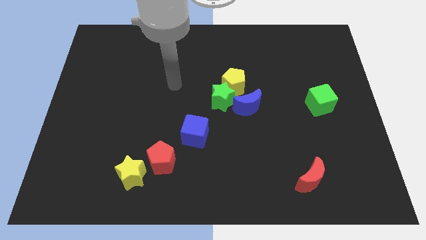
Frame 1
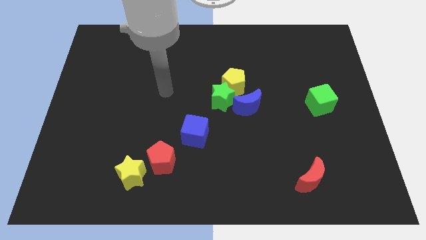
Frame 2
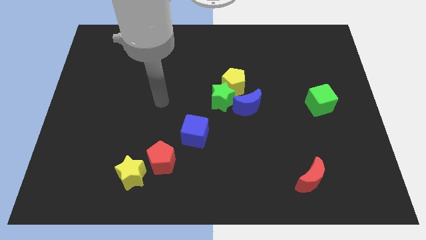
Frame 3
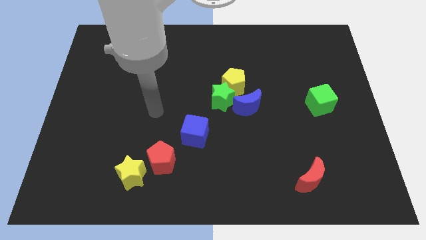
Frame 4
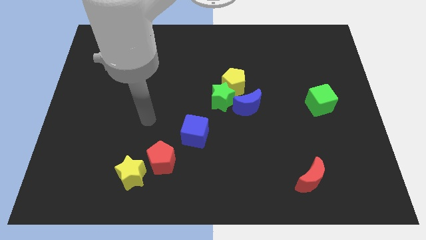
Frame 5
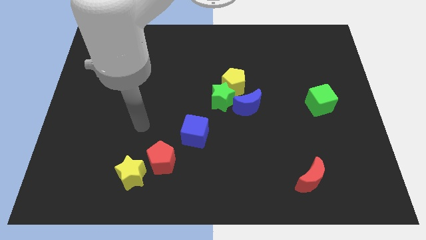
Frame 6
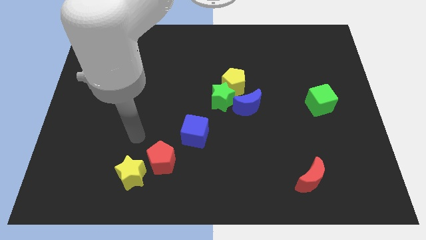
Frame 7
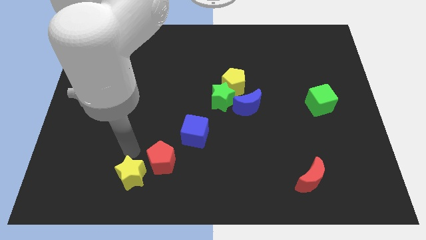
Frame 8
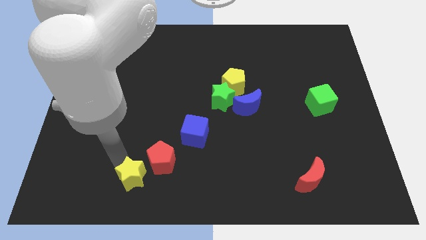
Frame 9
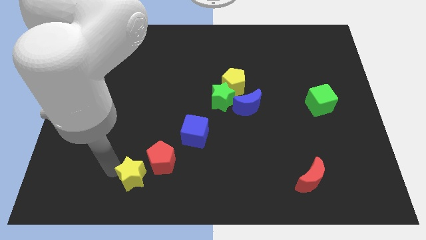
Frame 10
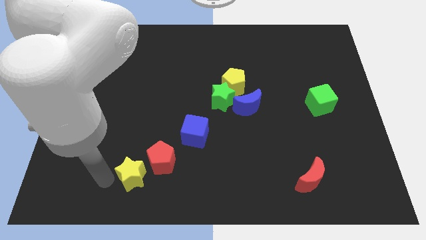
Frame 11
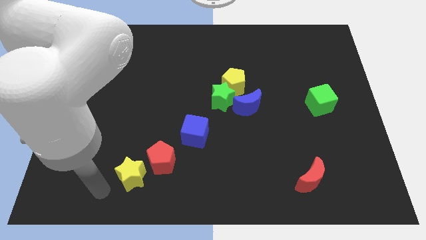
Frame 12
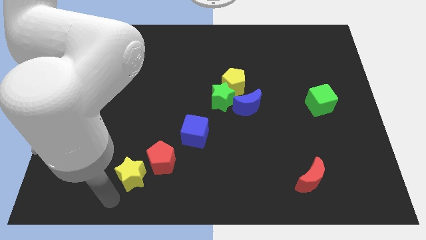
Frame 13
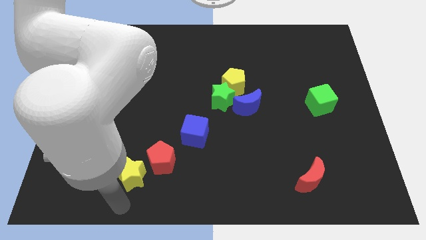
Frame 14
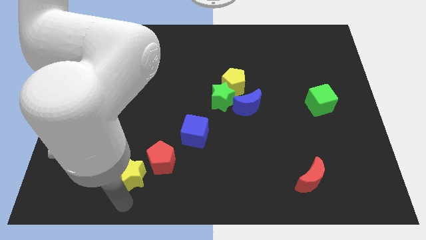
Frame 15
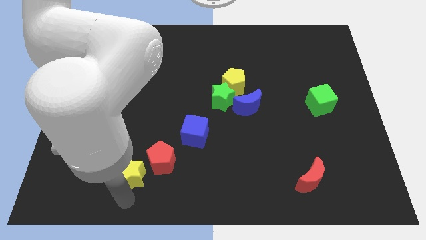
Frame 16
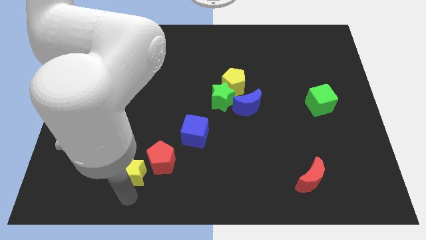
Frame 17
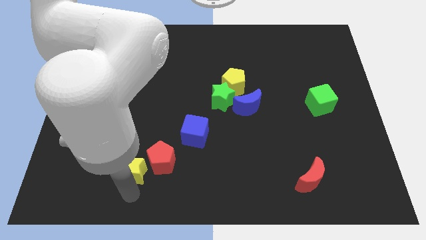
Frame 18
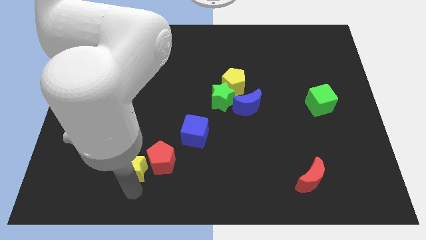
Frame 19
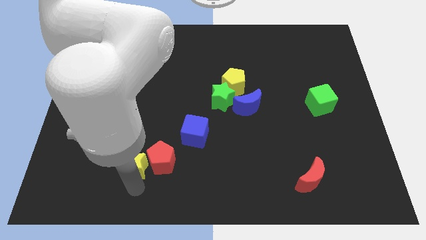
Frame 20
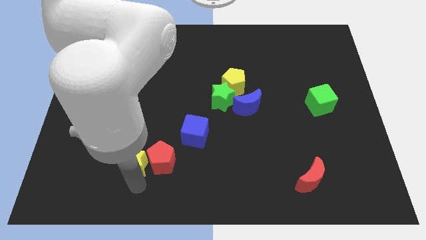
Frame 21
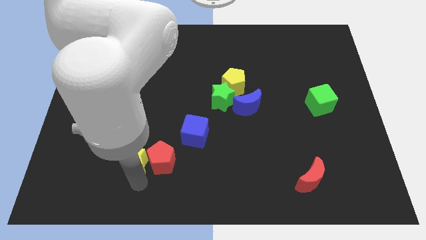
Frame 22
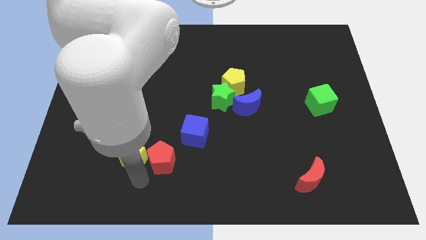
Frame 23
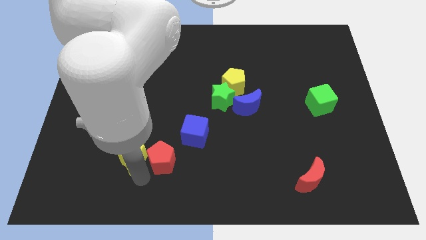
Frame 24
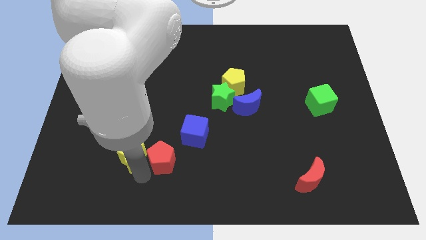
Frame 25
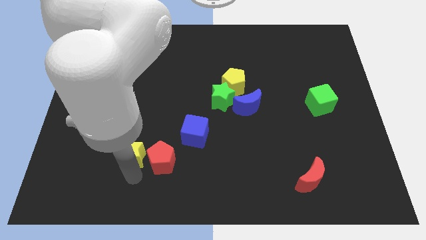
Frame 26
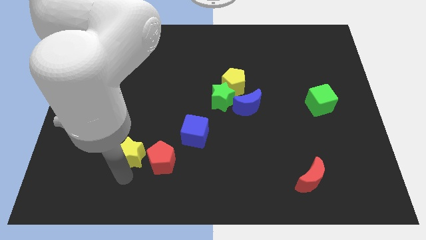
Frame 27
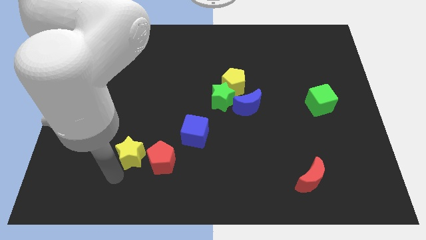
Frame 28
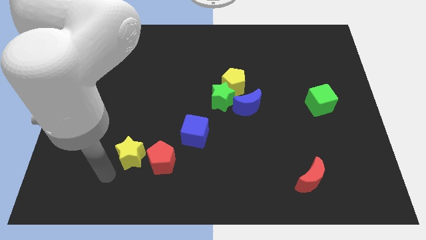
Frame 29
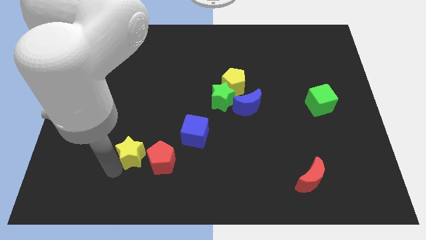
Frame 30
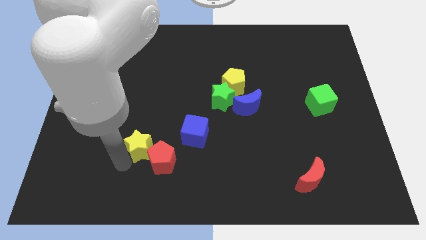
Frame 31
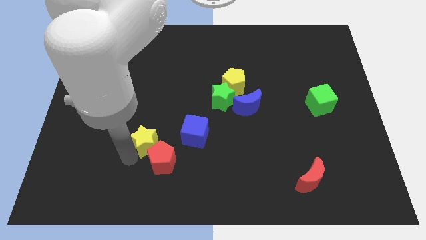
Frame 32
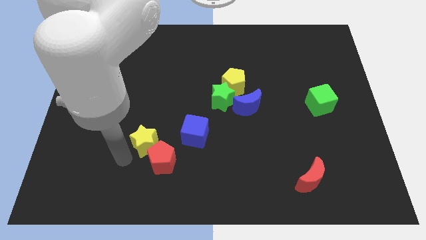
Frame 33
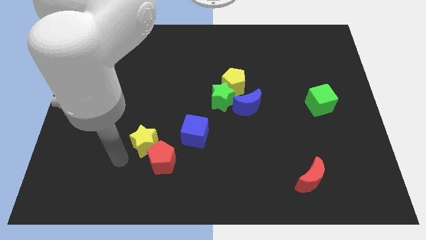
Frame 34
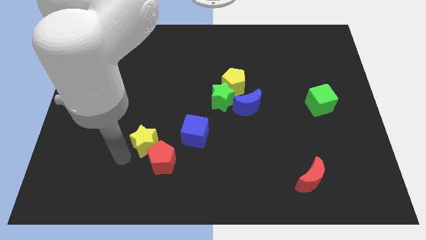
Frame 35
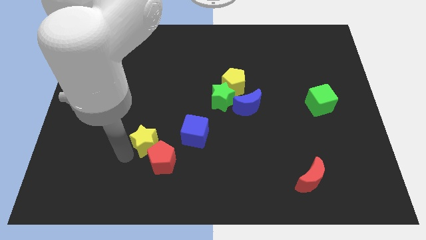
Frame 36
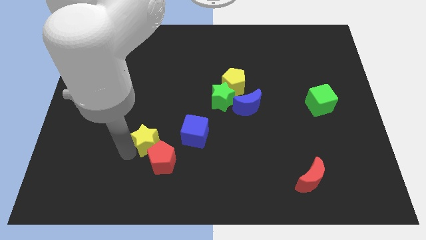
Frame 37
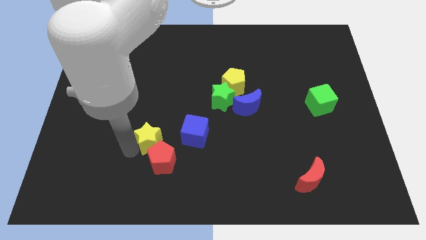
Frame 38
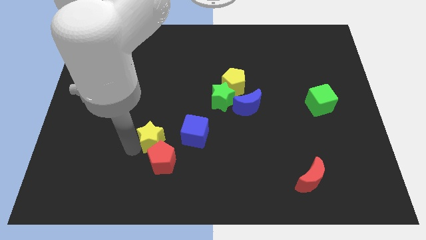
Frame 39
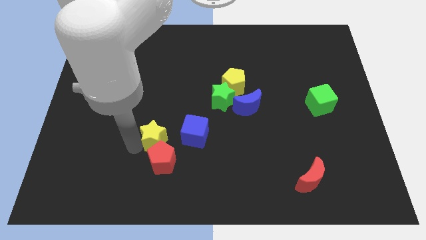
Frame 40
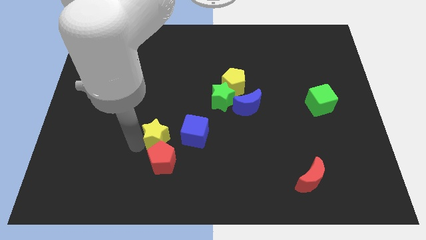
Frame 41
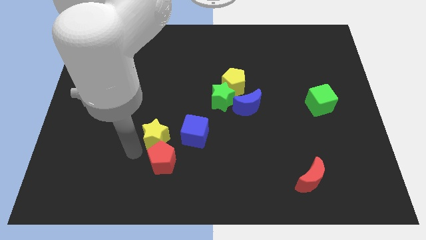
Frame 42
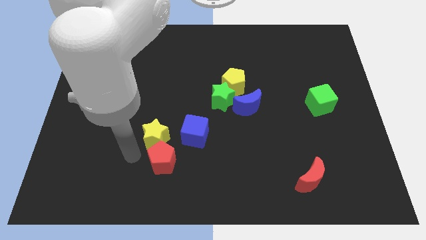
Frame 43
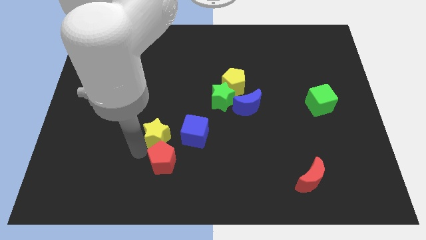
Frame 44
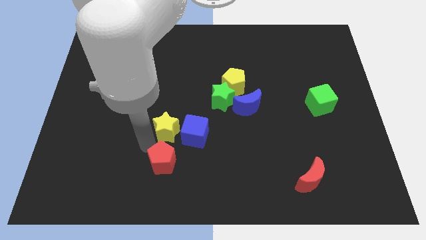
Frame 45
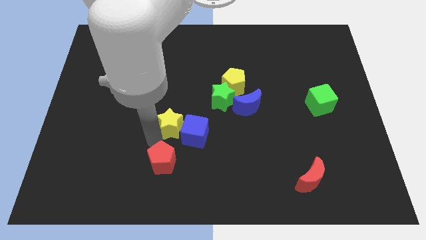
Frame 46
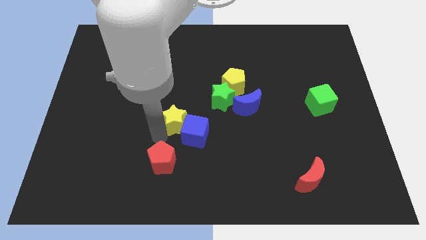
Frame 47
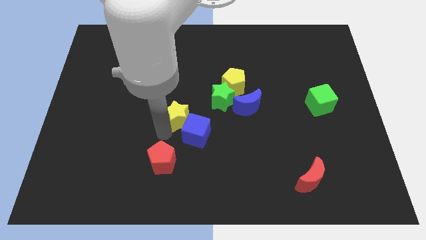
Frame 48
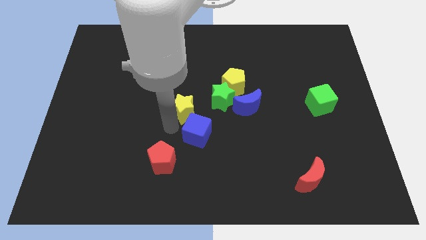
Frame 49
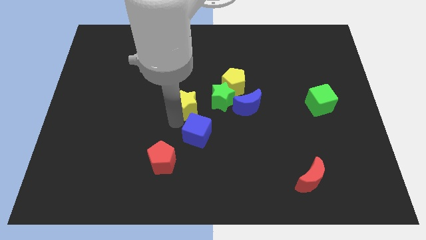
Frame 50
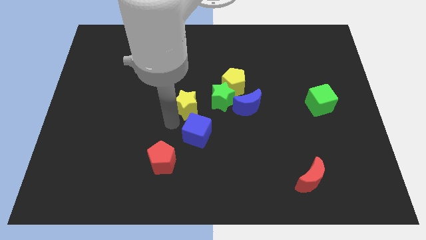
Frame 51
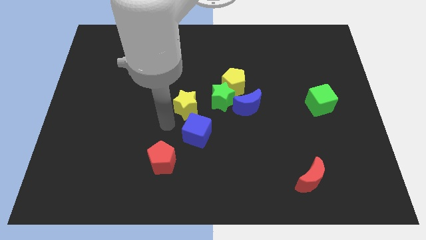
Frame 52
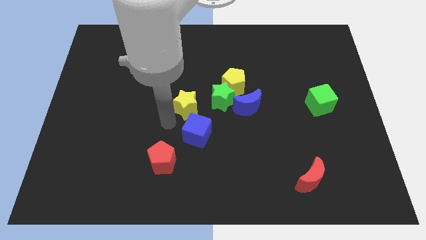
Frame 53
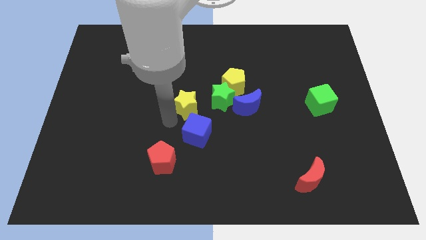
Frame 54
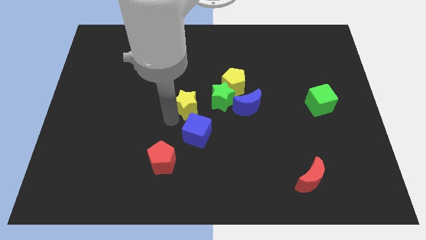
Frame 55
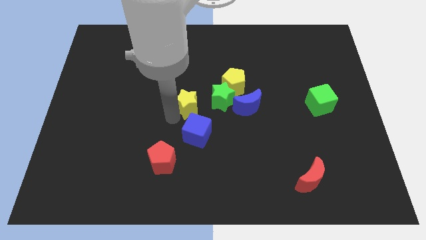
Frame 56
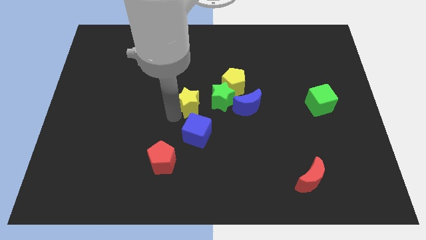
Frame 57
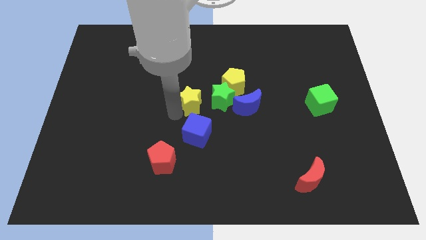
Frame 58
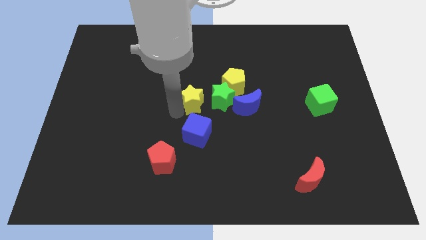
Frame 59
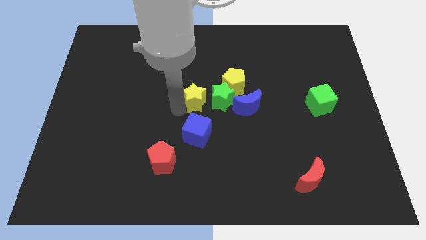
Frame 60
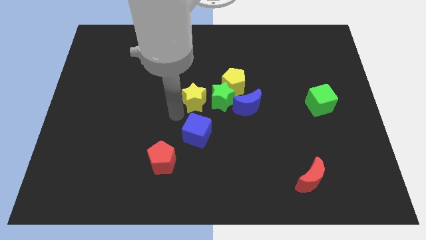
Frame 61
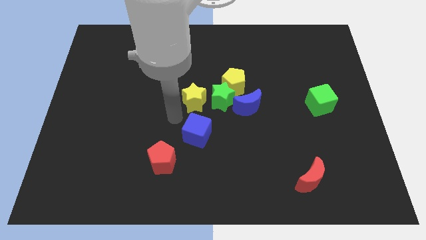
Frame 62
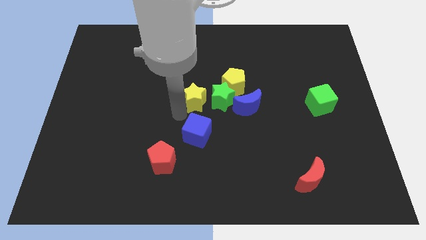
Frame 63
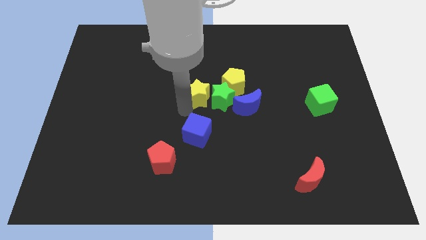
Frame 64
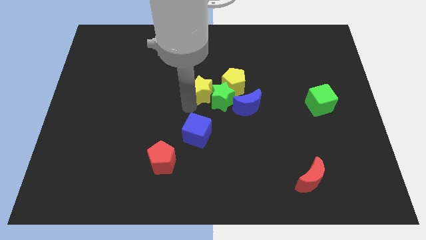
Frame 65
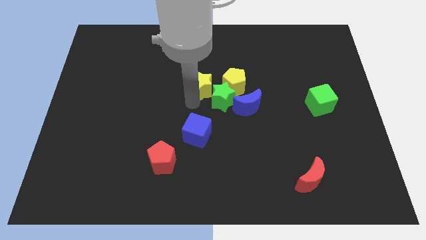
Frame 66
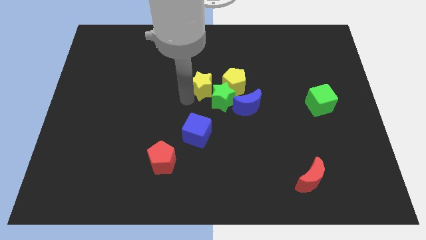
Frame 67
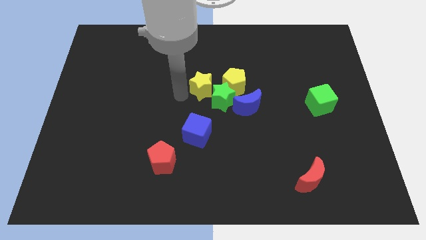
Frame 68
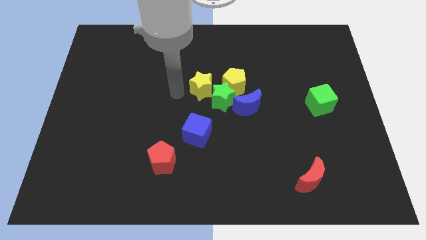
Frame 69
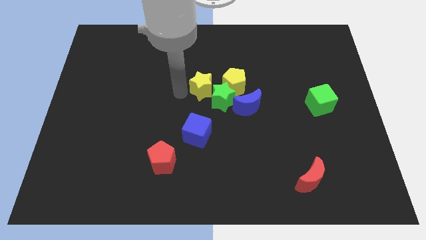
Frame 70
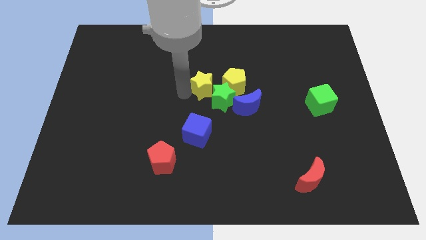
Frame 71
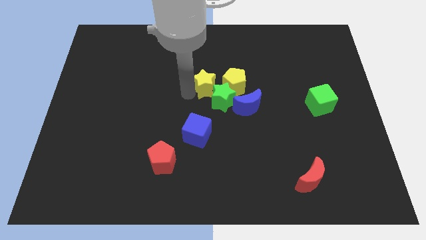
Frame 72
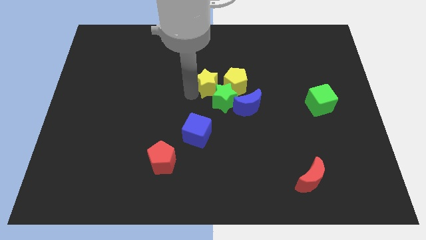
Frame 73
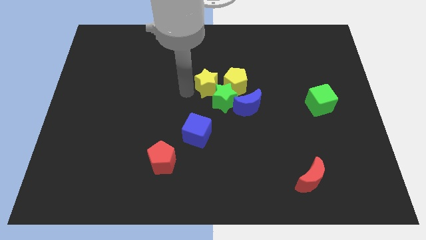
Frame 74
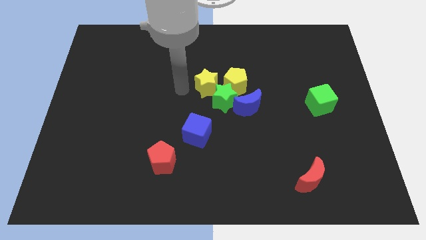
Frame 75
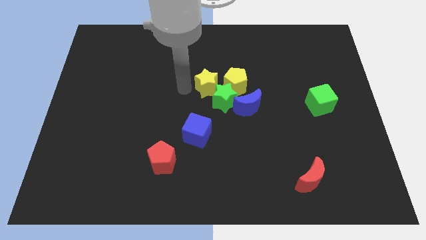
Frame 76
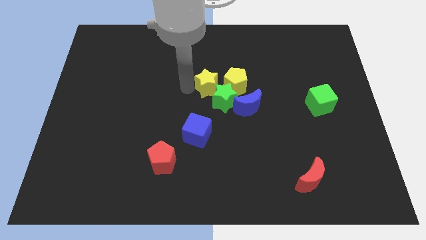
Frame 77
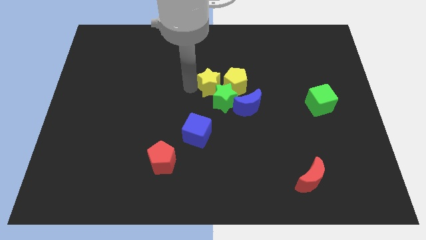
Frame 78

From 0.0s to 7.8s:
push the yellow star next to the yellow pentagon

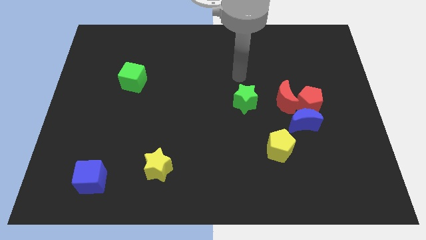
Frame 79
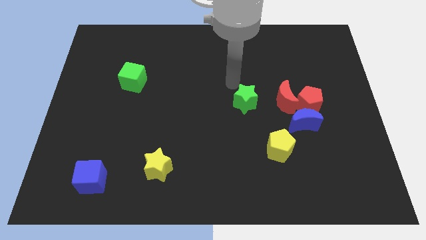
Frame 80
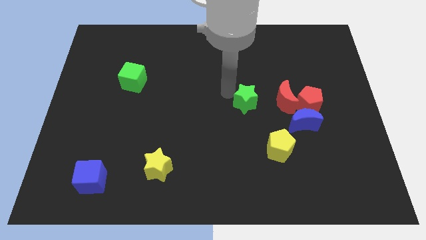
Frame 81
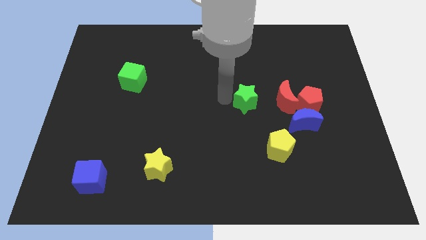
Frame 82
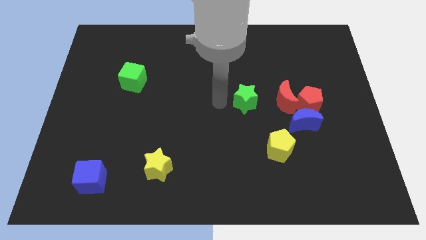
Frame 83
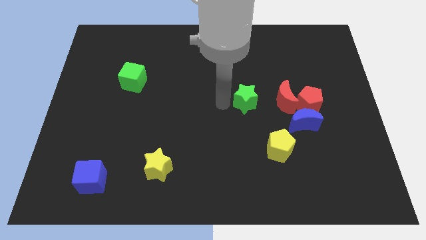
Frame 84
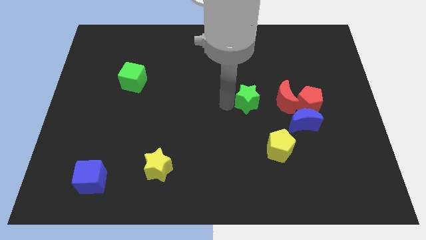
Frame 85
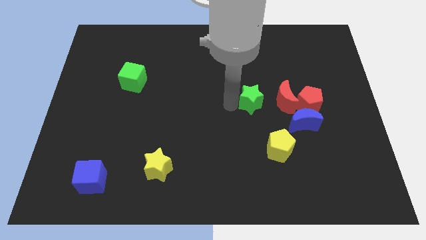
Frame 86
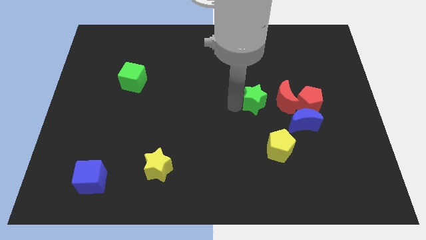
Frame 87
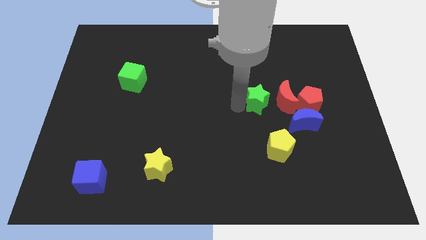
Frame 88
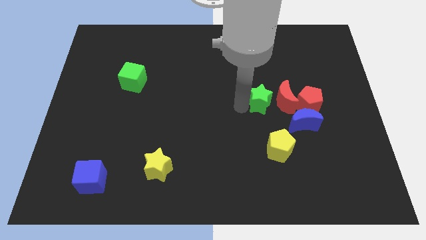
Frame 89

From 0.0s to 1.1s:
push the green star to the red moon
